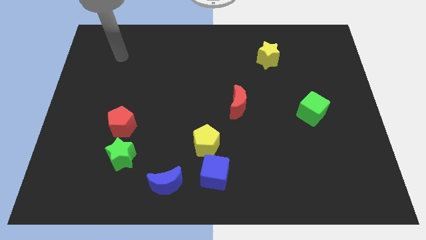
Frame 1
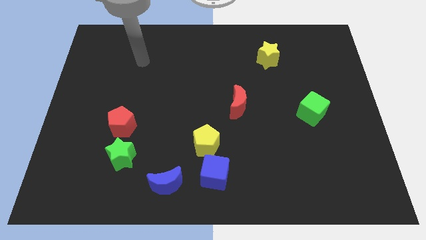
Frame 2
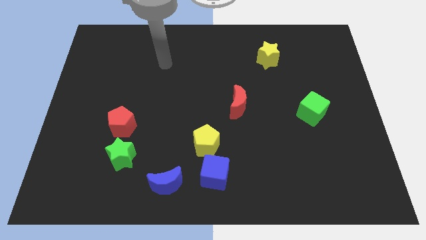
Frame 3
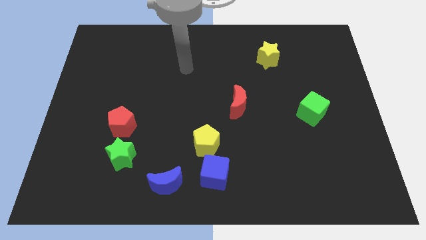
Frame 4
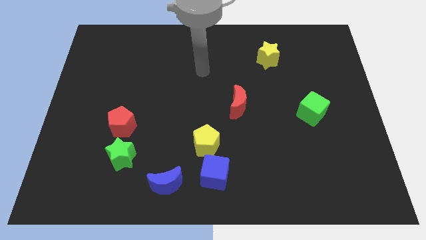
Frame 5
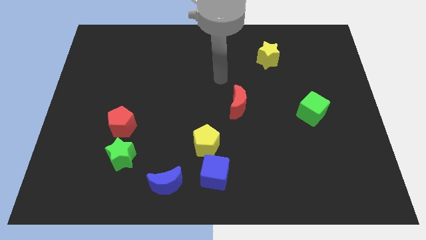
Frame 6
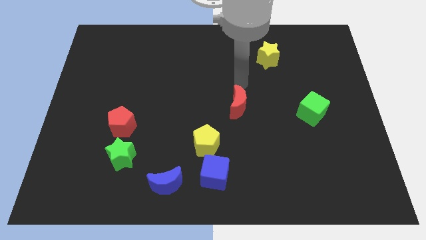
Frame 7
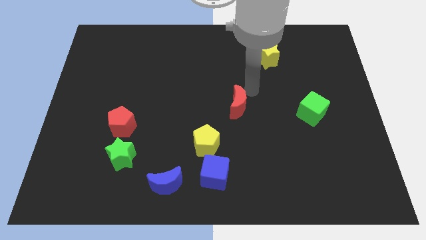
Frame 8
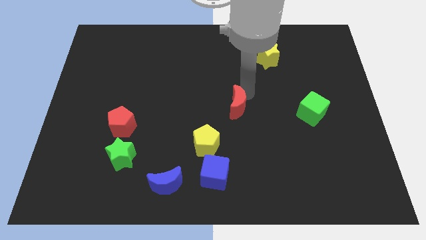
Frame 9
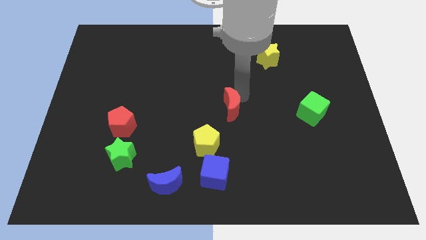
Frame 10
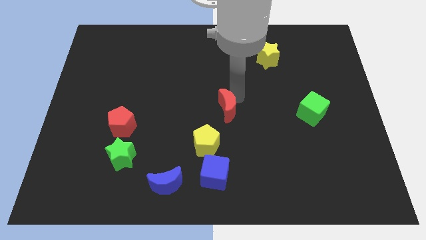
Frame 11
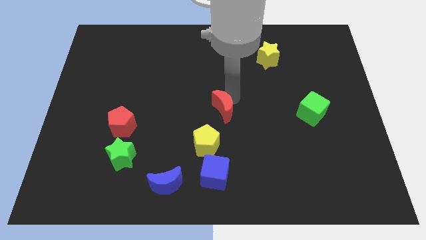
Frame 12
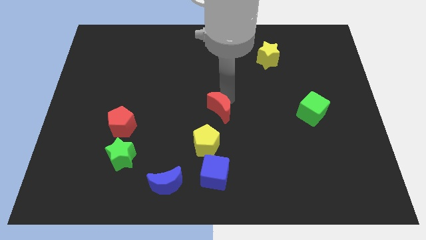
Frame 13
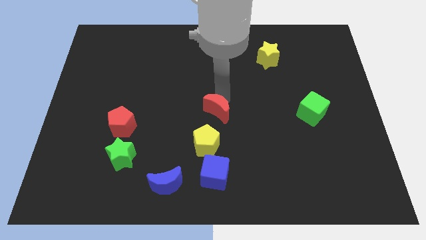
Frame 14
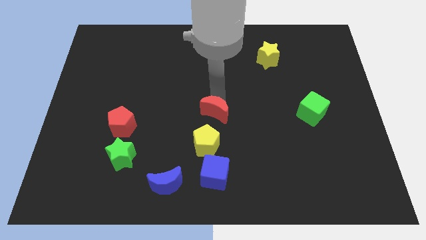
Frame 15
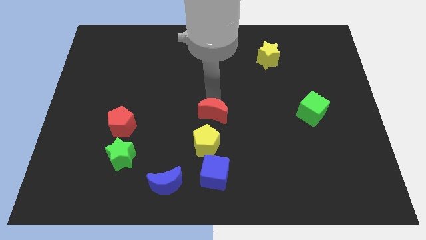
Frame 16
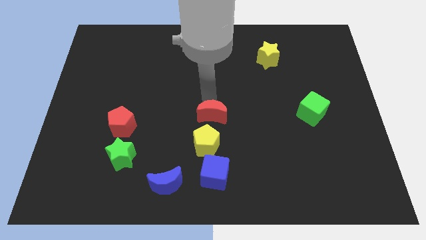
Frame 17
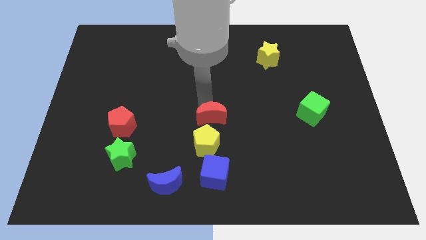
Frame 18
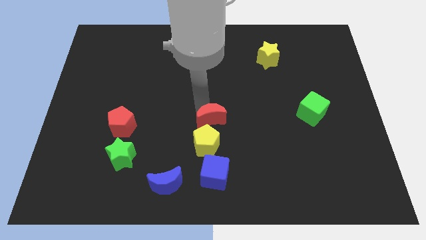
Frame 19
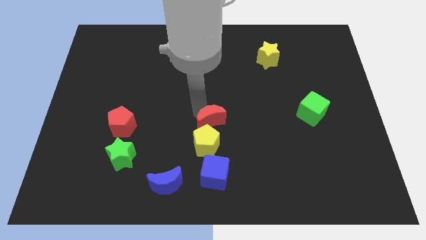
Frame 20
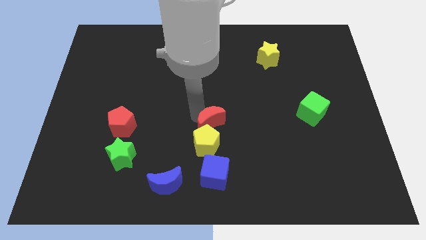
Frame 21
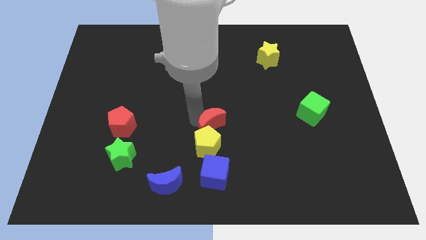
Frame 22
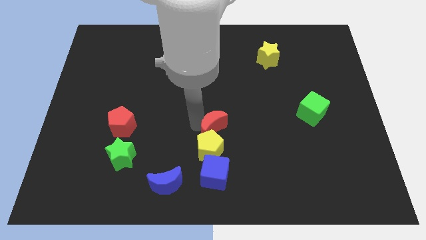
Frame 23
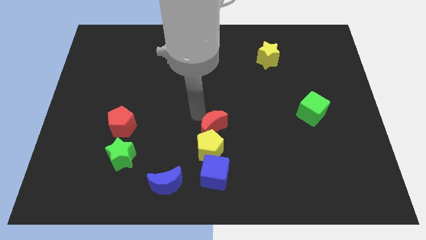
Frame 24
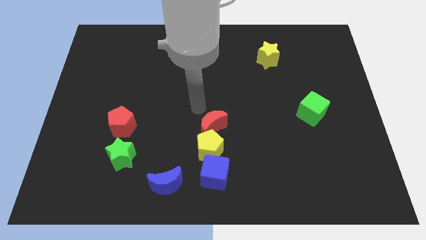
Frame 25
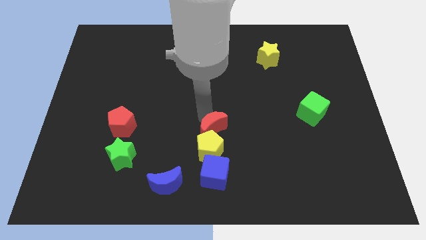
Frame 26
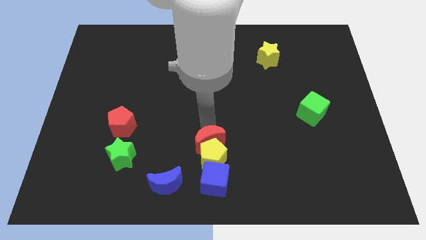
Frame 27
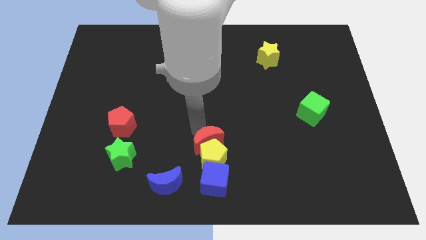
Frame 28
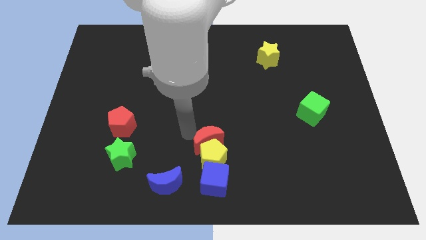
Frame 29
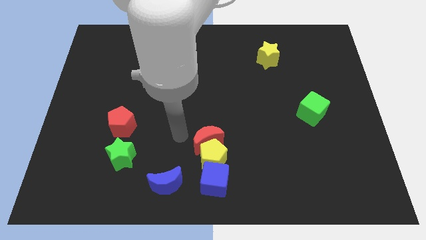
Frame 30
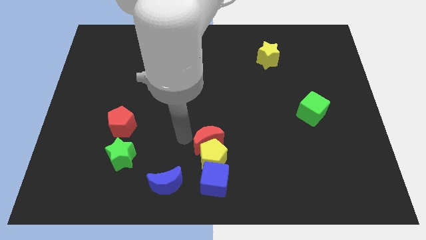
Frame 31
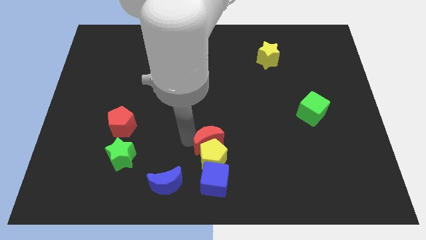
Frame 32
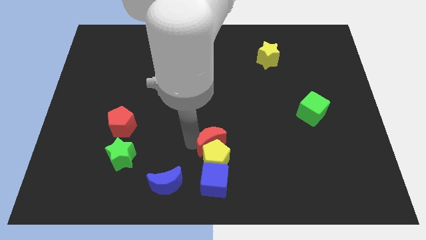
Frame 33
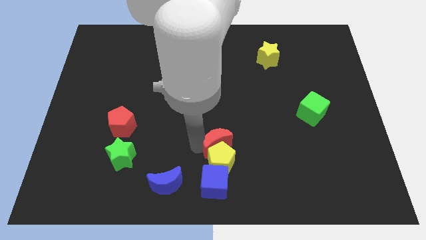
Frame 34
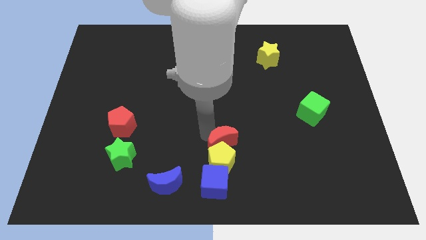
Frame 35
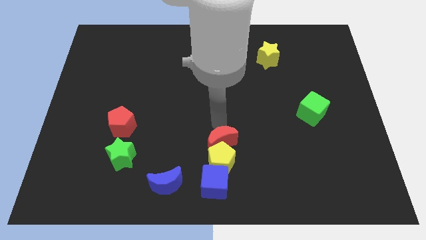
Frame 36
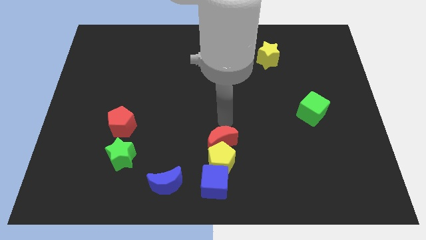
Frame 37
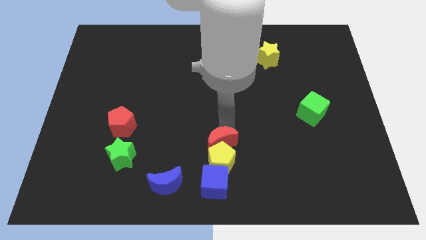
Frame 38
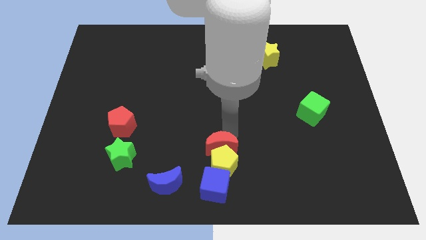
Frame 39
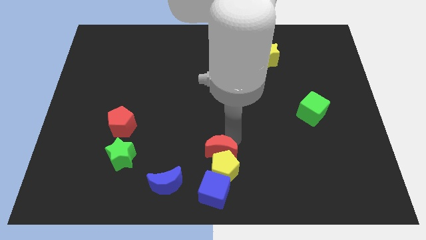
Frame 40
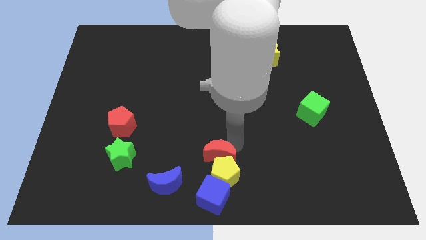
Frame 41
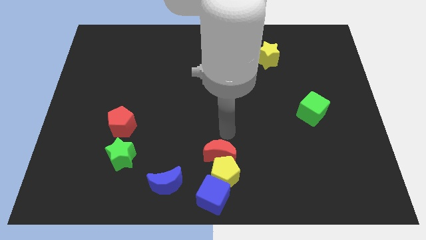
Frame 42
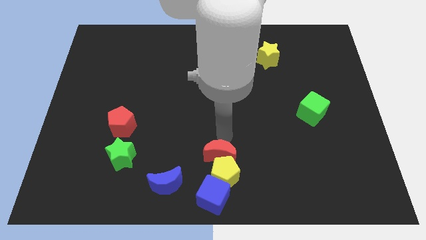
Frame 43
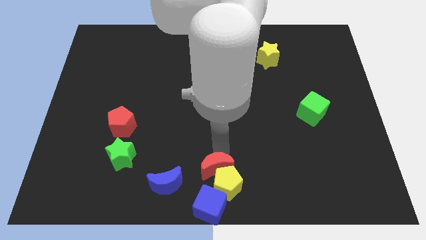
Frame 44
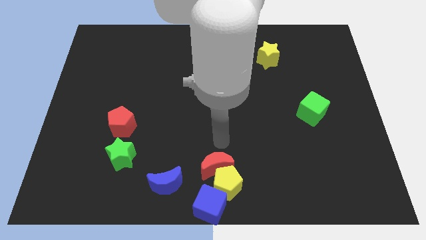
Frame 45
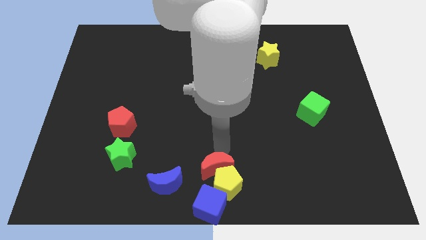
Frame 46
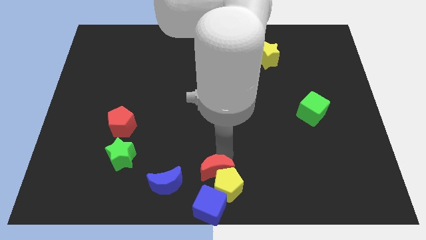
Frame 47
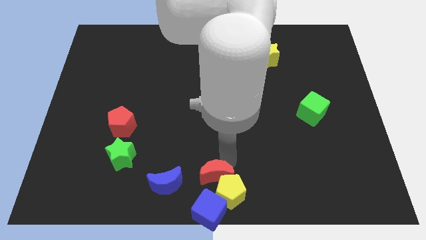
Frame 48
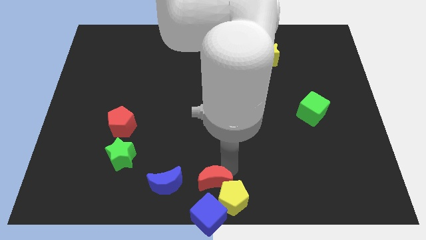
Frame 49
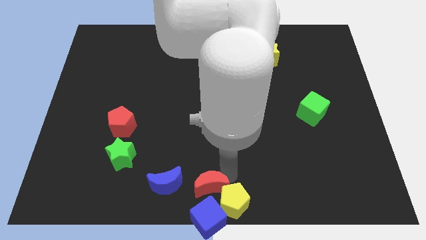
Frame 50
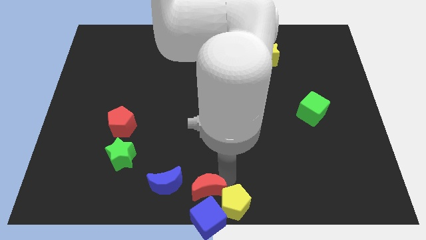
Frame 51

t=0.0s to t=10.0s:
put the red moon next to the blue cube

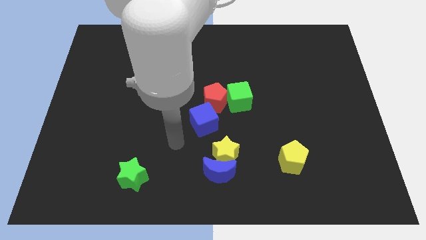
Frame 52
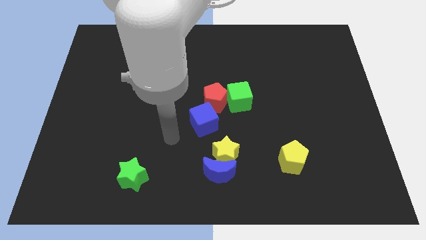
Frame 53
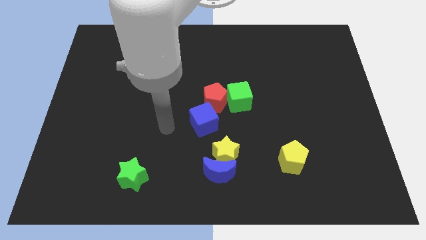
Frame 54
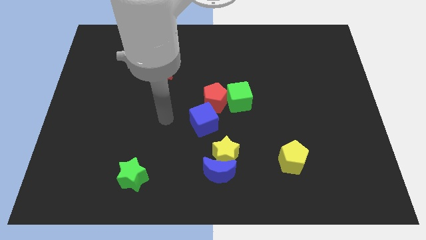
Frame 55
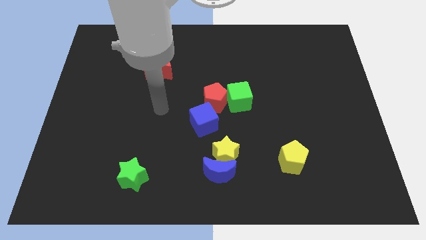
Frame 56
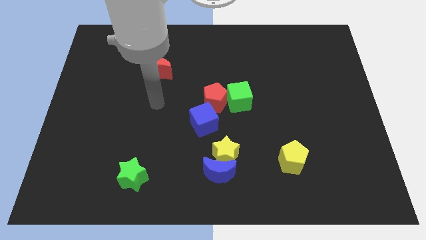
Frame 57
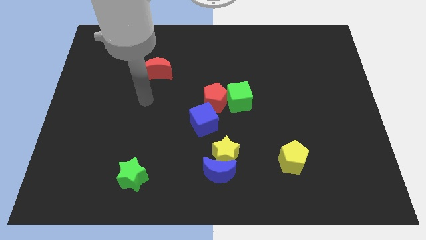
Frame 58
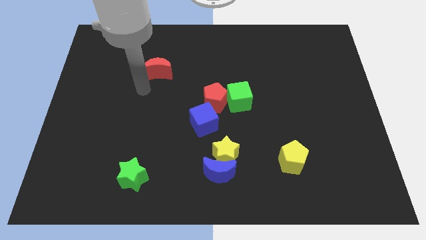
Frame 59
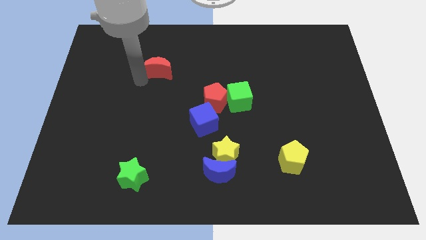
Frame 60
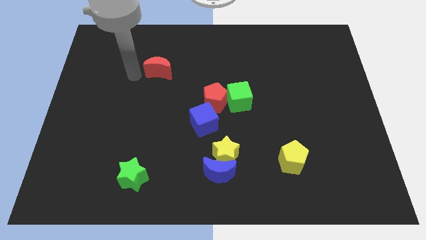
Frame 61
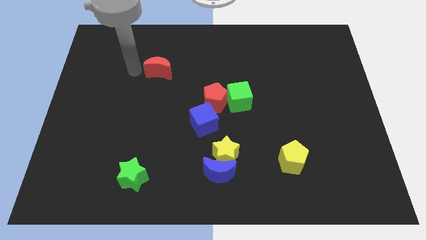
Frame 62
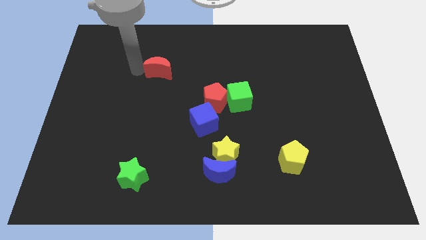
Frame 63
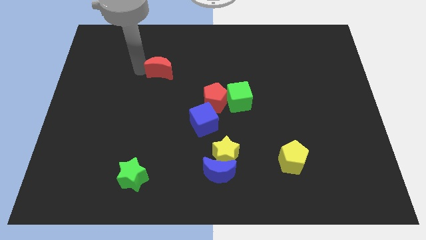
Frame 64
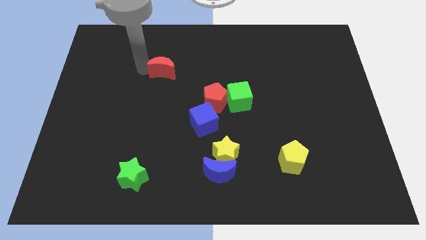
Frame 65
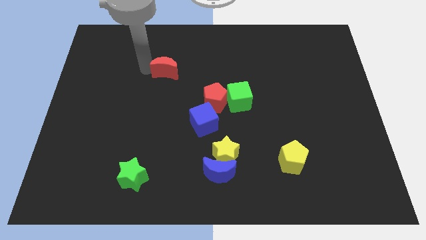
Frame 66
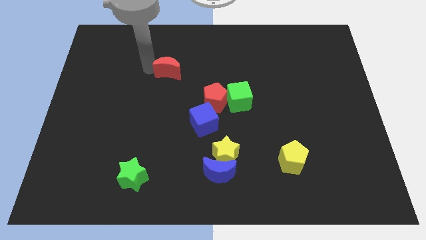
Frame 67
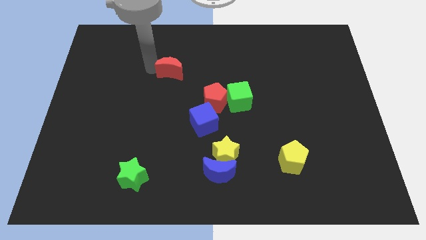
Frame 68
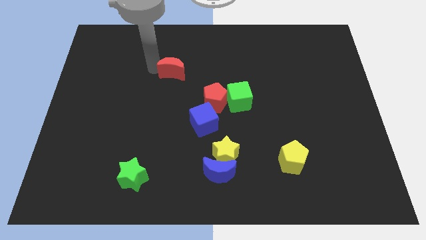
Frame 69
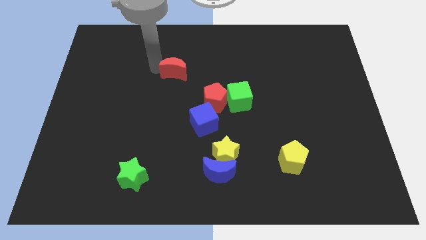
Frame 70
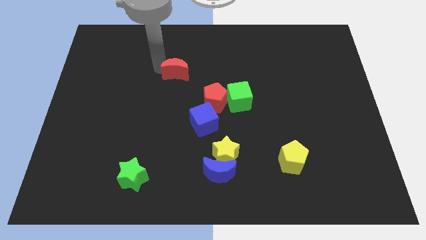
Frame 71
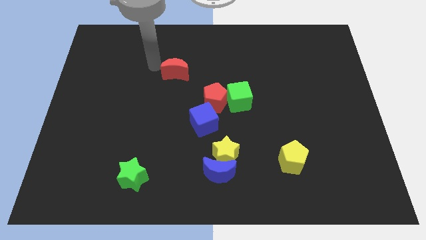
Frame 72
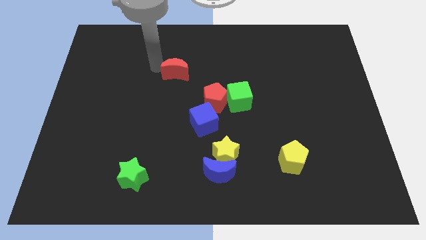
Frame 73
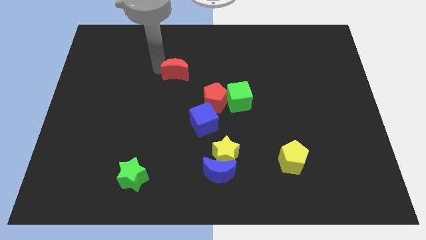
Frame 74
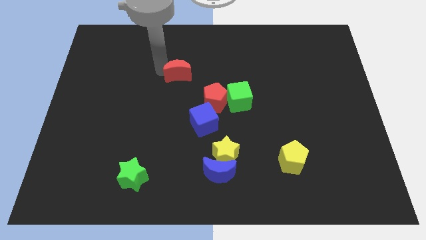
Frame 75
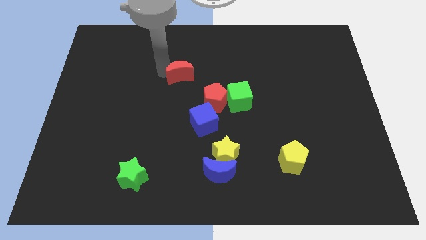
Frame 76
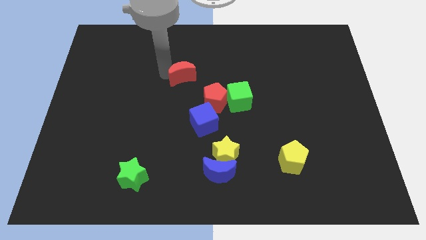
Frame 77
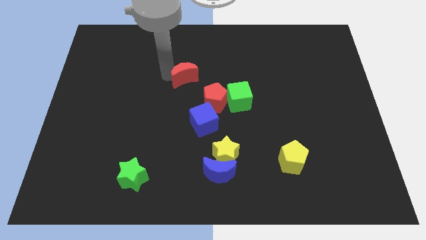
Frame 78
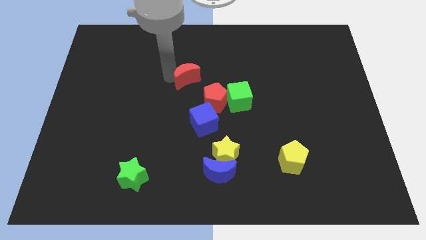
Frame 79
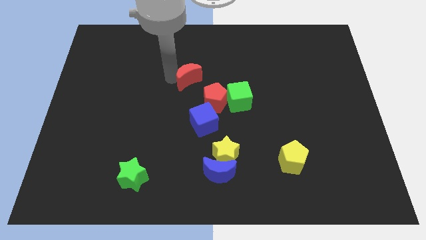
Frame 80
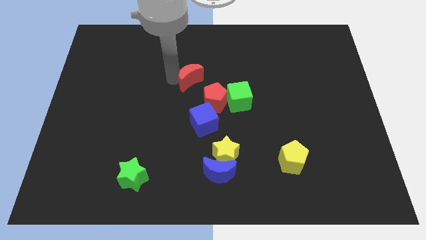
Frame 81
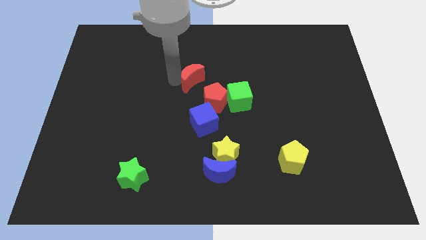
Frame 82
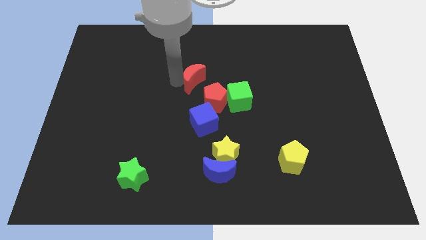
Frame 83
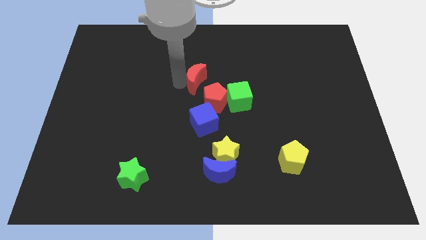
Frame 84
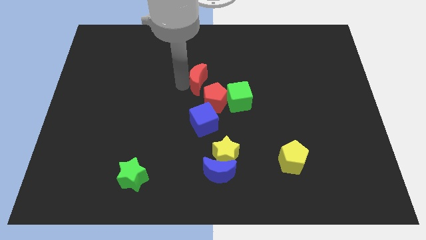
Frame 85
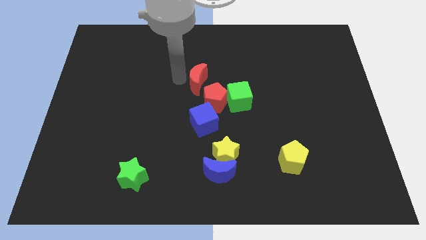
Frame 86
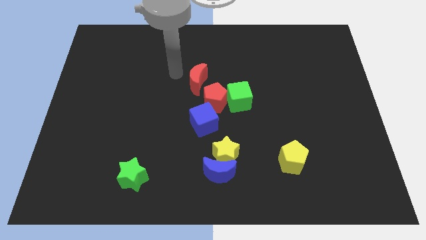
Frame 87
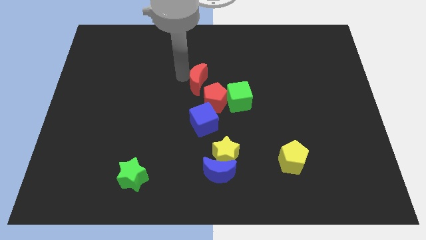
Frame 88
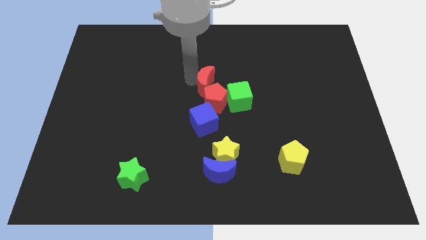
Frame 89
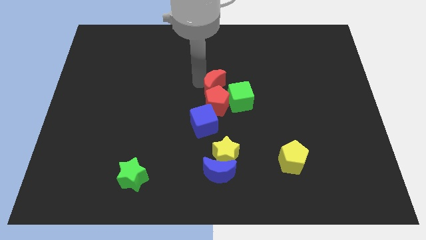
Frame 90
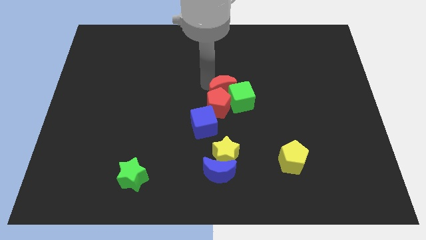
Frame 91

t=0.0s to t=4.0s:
slide the red moon towards the green cube
